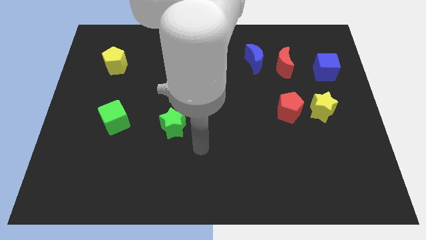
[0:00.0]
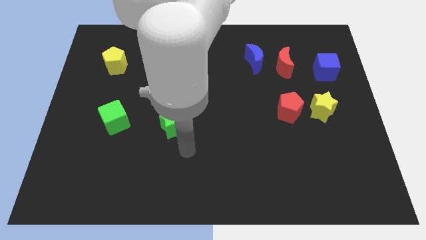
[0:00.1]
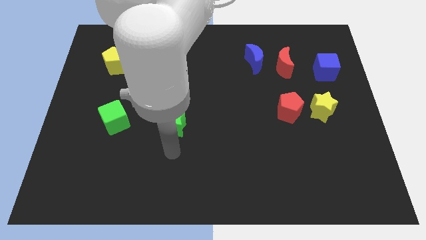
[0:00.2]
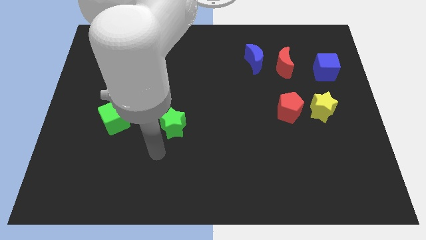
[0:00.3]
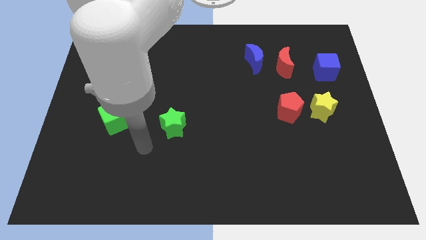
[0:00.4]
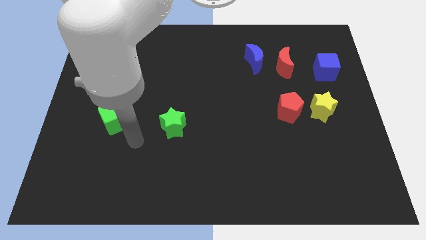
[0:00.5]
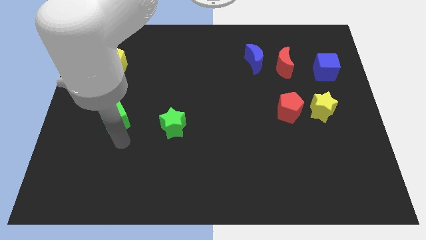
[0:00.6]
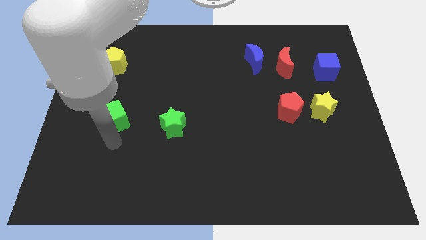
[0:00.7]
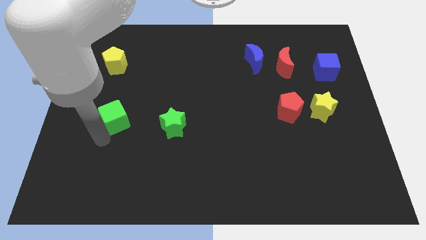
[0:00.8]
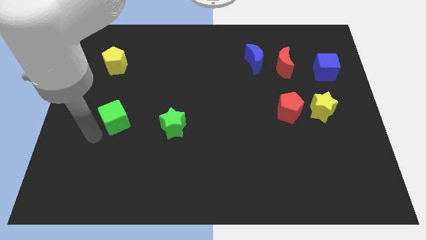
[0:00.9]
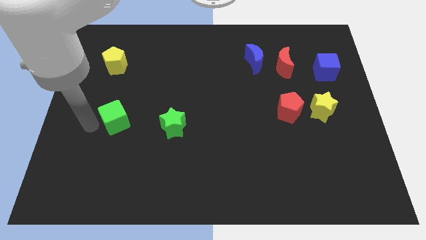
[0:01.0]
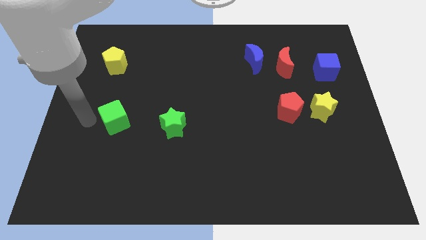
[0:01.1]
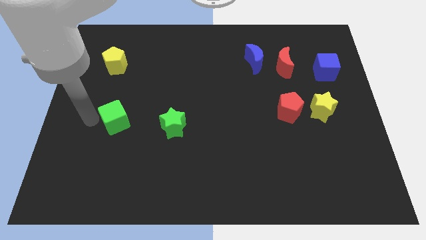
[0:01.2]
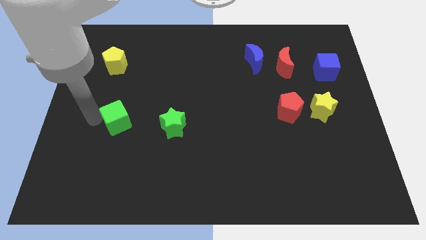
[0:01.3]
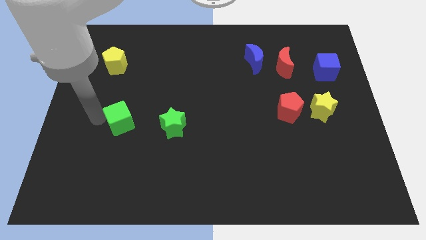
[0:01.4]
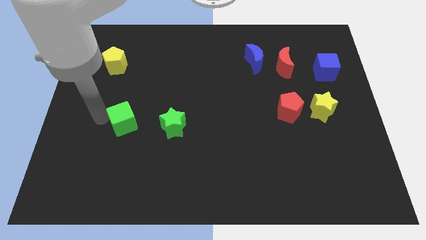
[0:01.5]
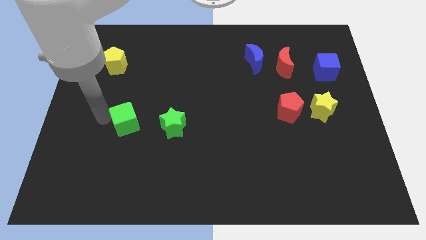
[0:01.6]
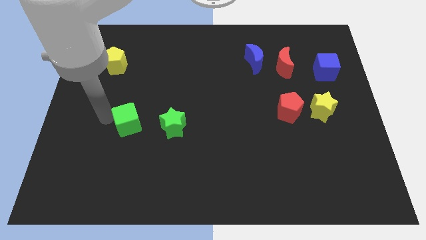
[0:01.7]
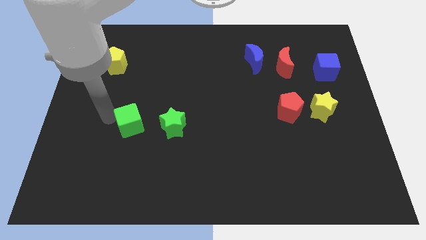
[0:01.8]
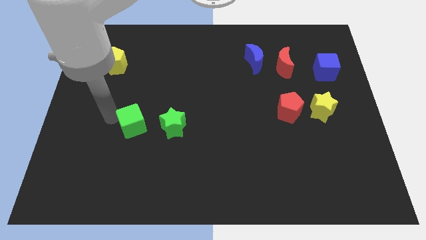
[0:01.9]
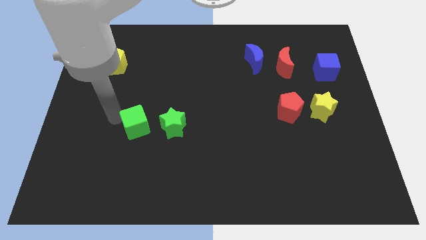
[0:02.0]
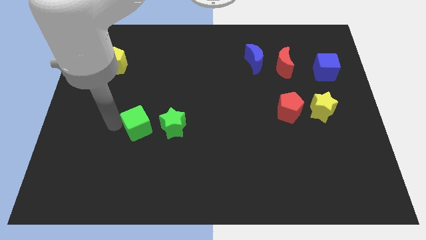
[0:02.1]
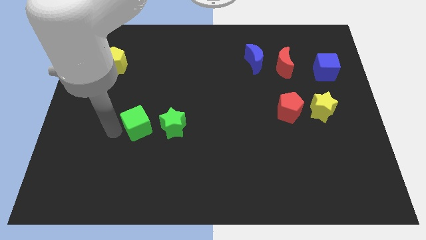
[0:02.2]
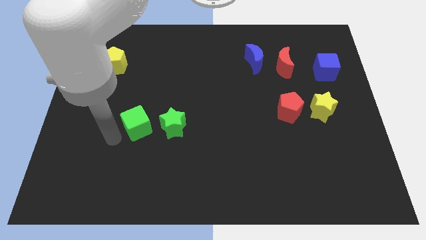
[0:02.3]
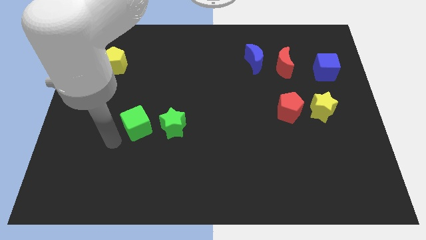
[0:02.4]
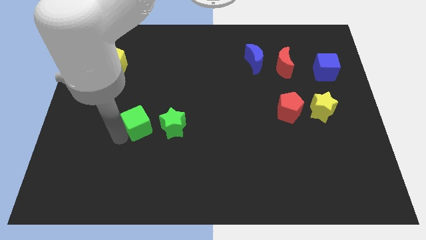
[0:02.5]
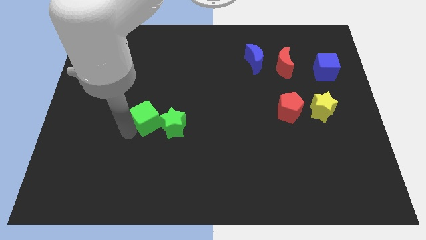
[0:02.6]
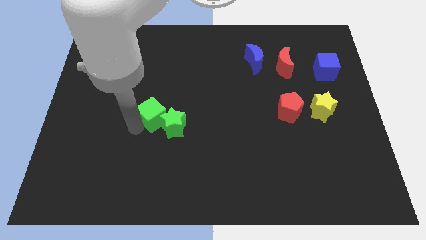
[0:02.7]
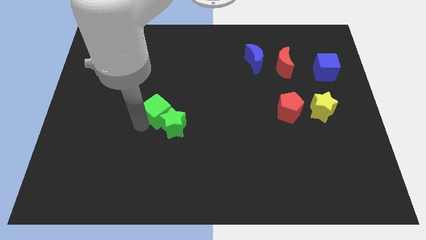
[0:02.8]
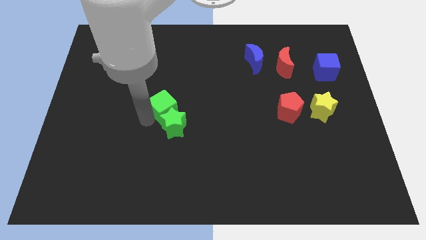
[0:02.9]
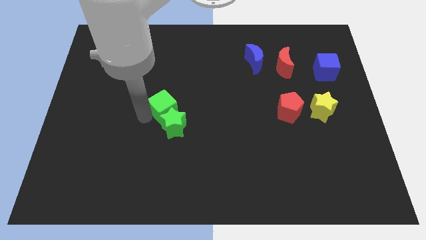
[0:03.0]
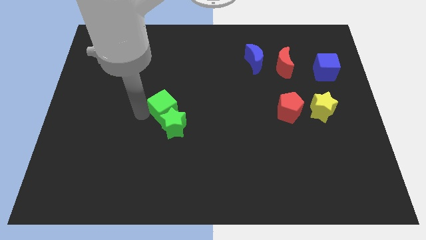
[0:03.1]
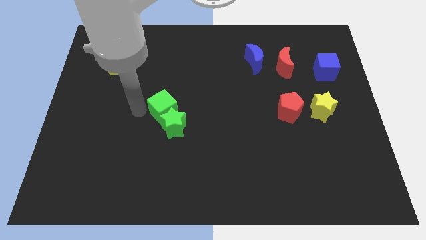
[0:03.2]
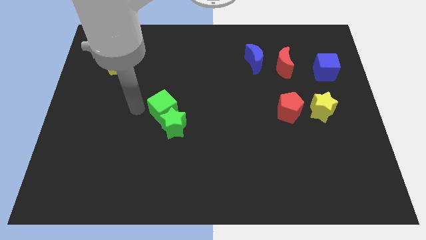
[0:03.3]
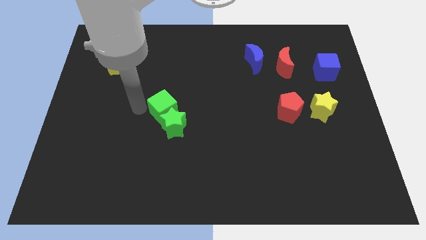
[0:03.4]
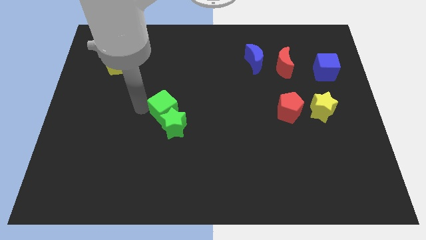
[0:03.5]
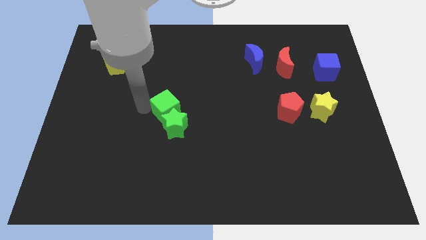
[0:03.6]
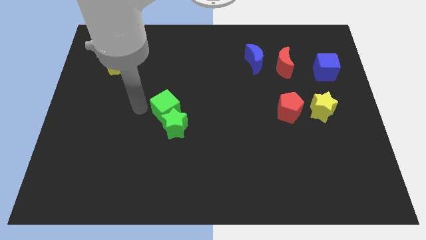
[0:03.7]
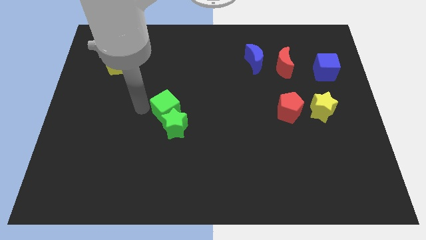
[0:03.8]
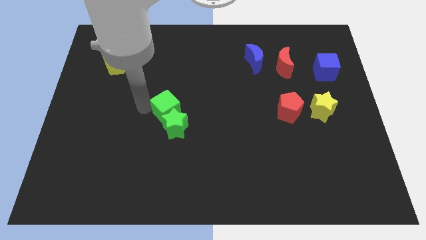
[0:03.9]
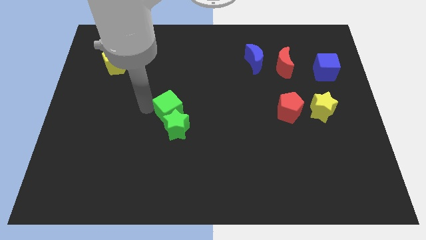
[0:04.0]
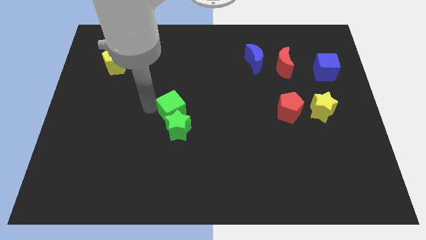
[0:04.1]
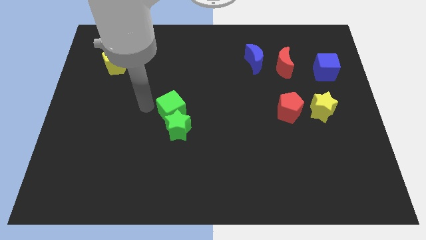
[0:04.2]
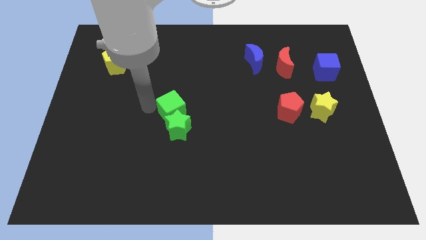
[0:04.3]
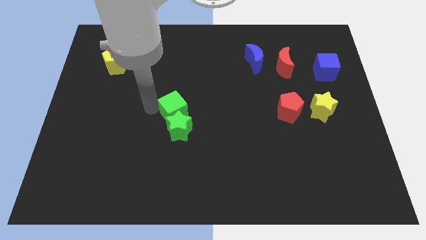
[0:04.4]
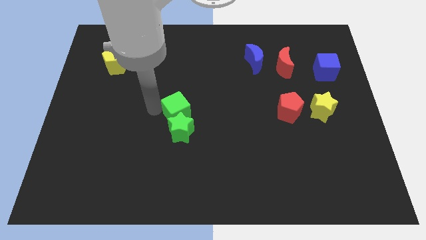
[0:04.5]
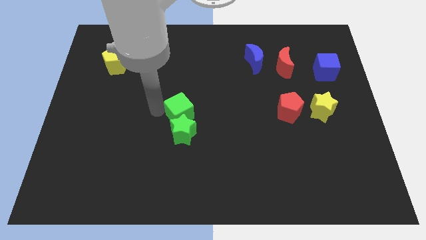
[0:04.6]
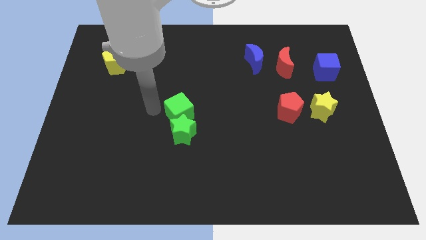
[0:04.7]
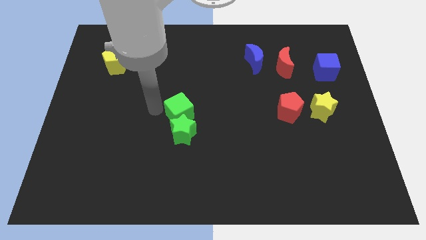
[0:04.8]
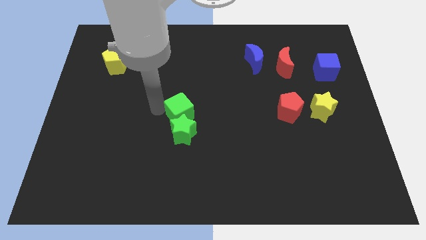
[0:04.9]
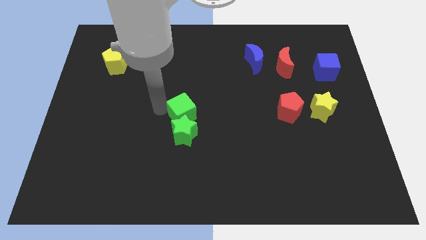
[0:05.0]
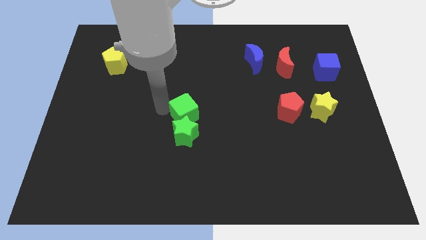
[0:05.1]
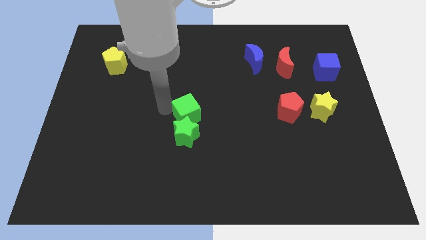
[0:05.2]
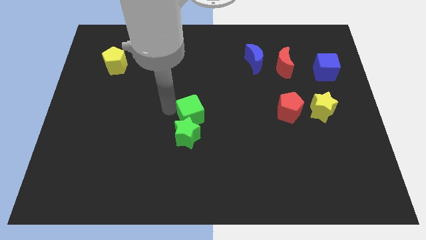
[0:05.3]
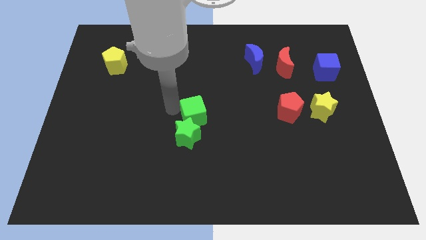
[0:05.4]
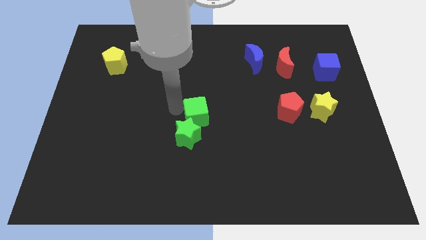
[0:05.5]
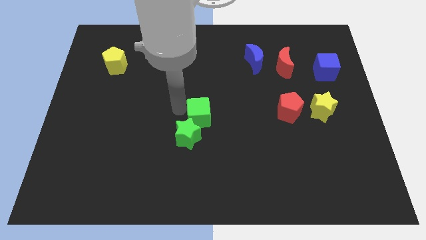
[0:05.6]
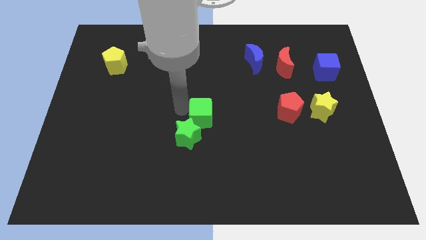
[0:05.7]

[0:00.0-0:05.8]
push the green cube to the right

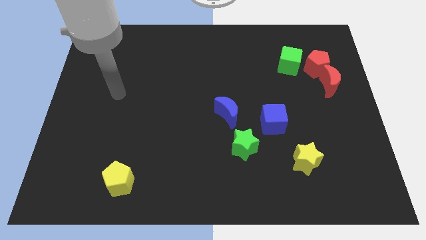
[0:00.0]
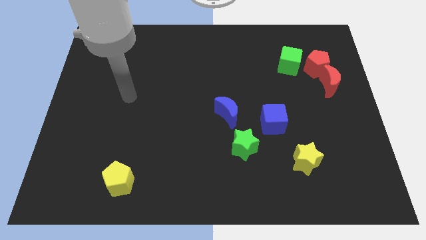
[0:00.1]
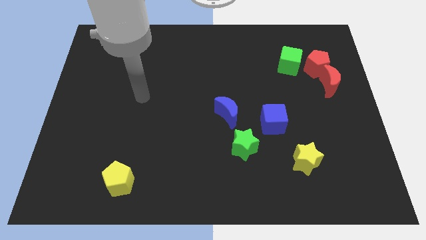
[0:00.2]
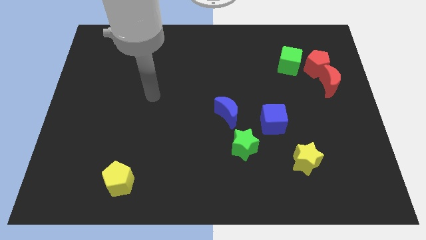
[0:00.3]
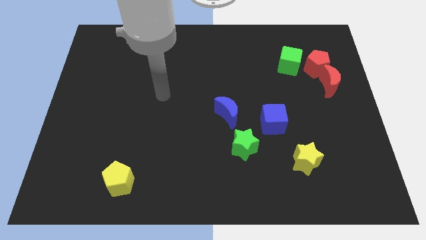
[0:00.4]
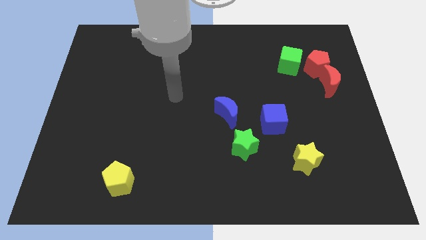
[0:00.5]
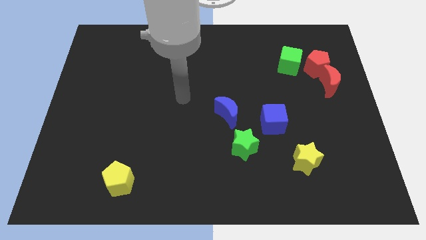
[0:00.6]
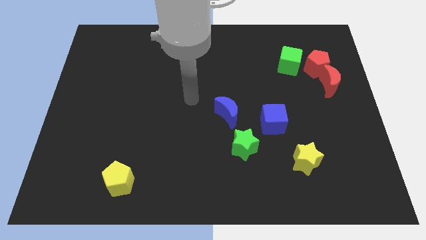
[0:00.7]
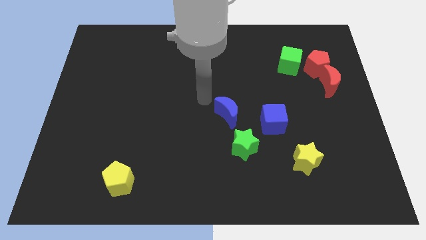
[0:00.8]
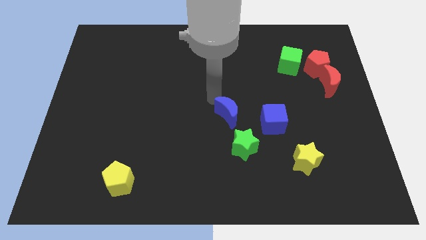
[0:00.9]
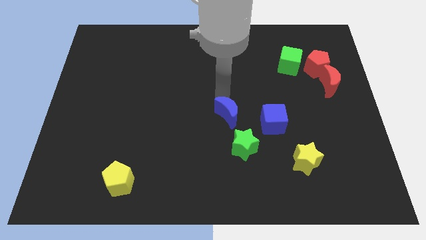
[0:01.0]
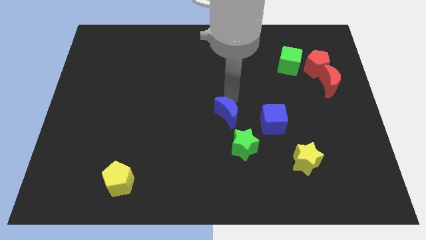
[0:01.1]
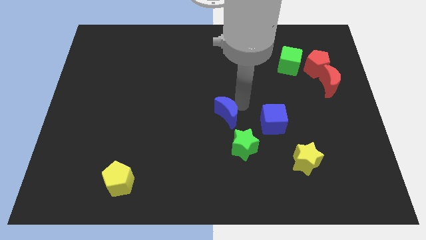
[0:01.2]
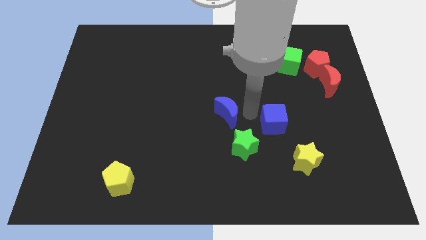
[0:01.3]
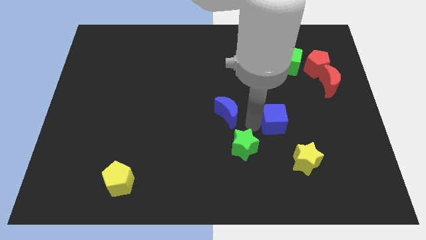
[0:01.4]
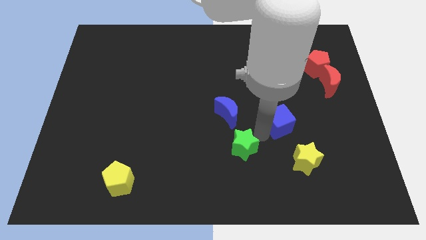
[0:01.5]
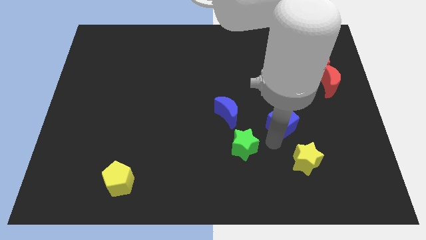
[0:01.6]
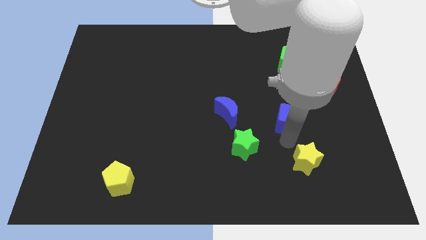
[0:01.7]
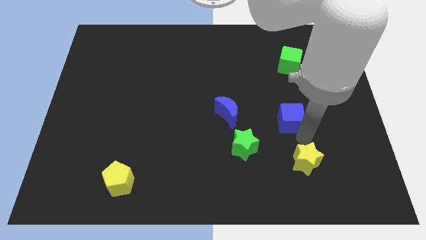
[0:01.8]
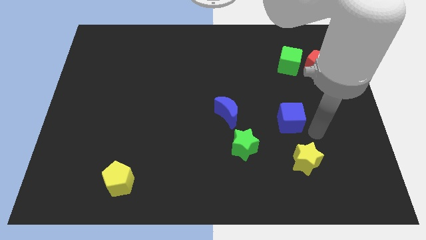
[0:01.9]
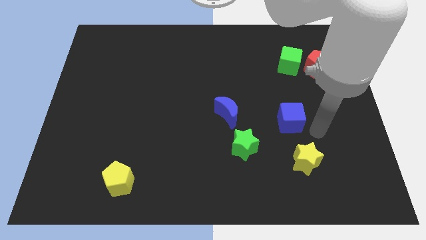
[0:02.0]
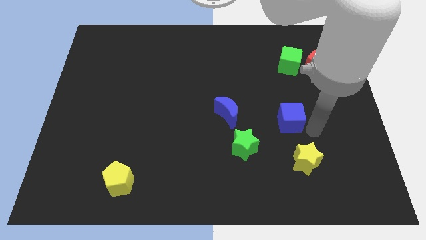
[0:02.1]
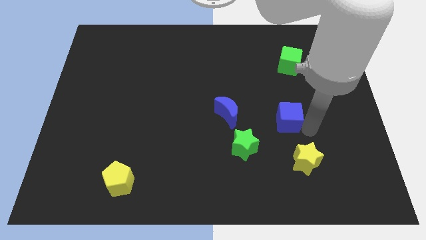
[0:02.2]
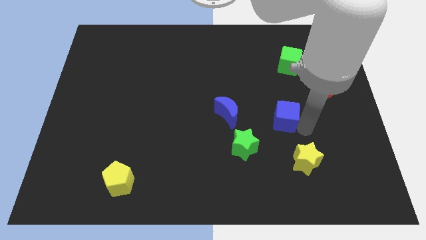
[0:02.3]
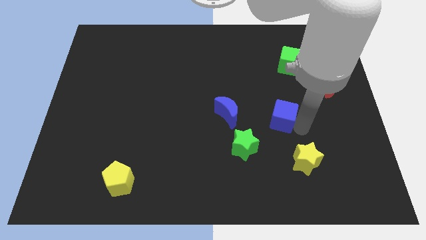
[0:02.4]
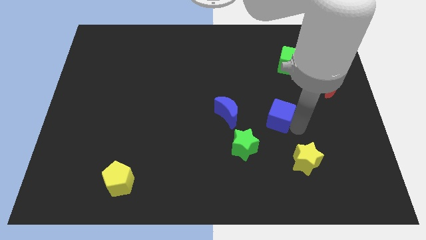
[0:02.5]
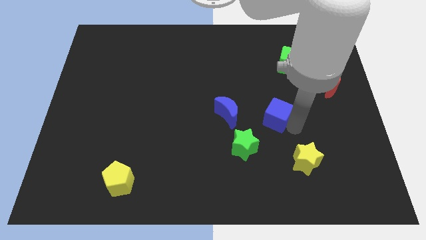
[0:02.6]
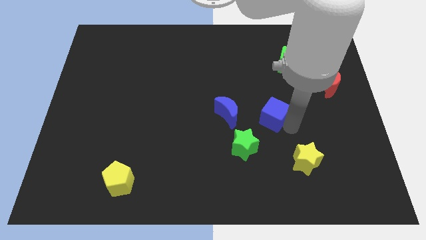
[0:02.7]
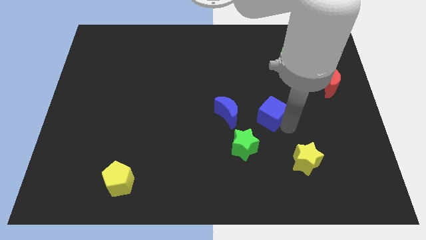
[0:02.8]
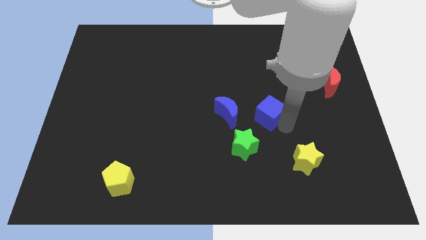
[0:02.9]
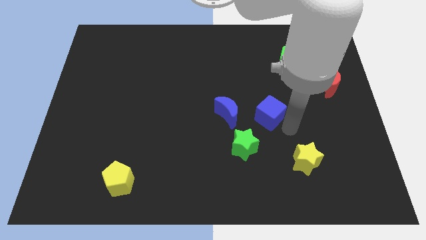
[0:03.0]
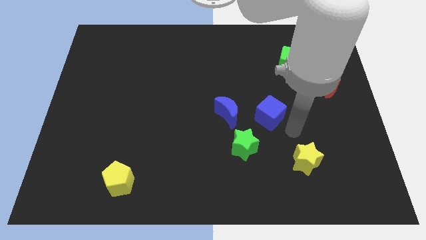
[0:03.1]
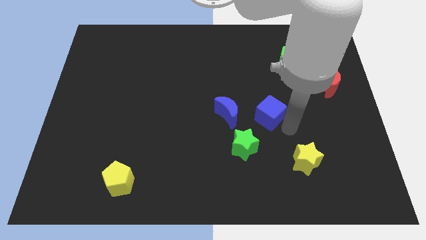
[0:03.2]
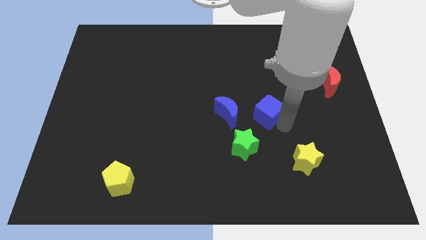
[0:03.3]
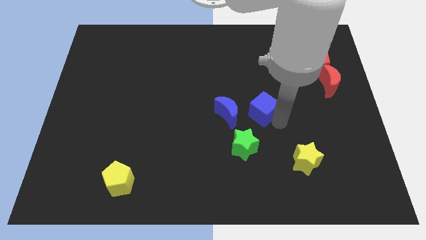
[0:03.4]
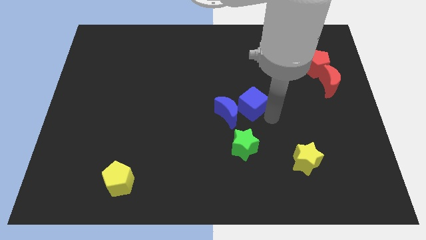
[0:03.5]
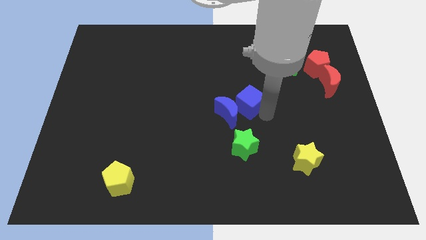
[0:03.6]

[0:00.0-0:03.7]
push the blue cube upwards and then to the left somewhat
